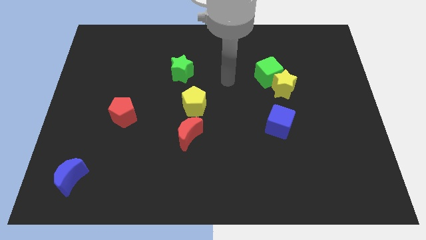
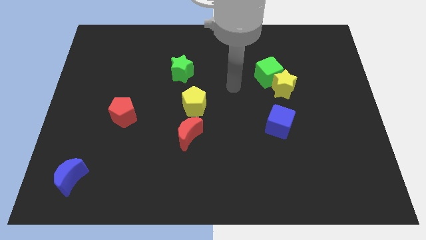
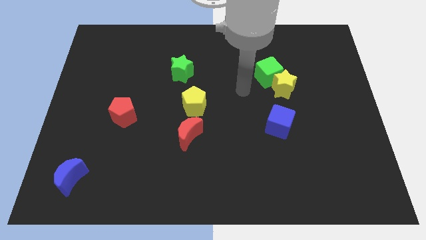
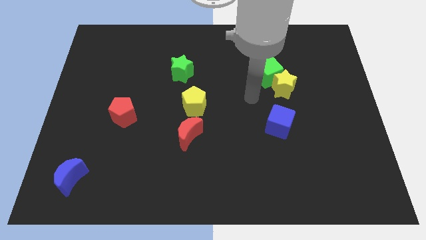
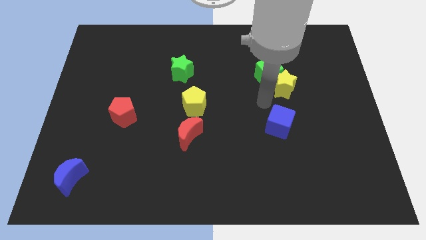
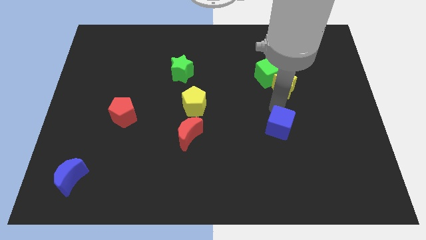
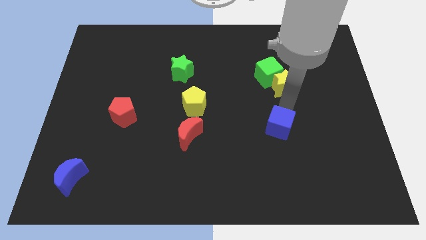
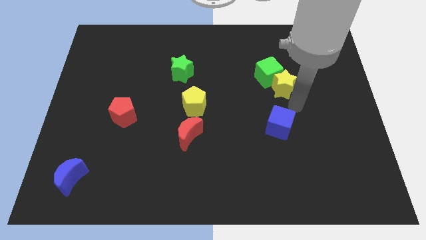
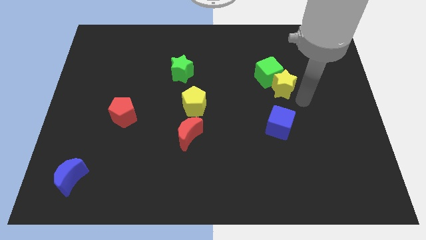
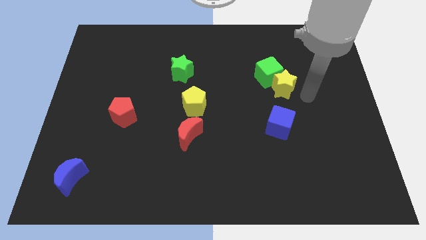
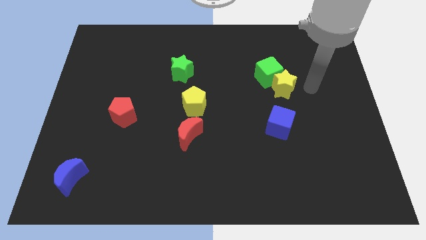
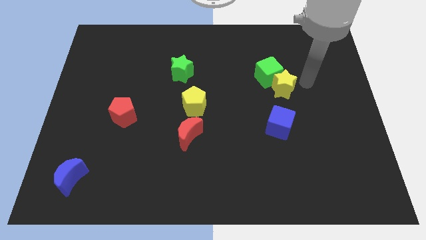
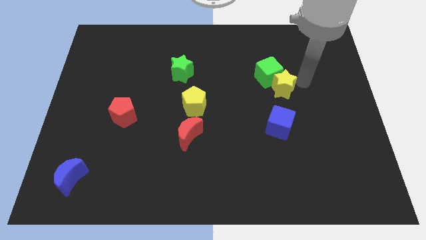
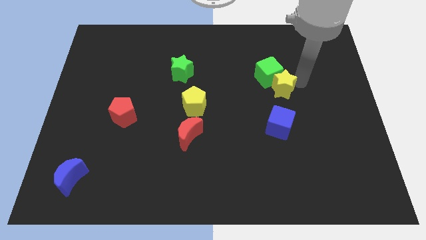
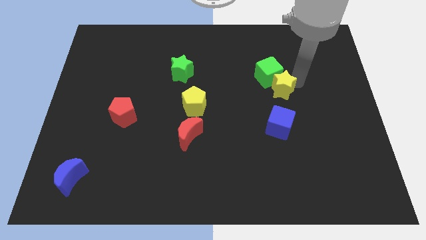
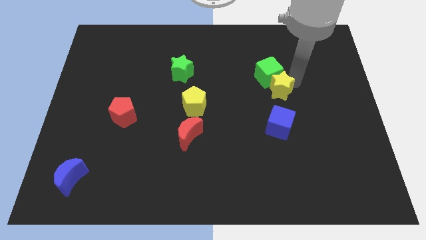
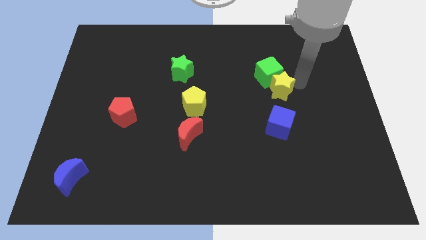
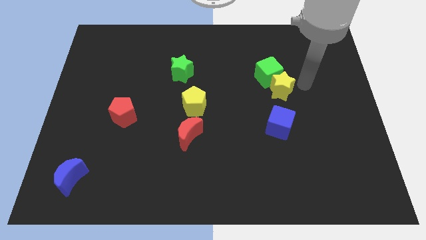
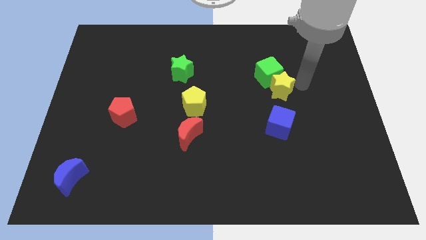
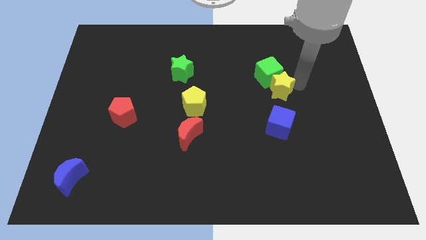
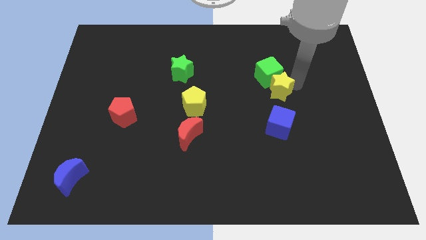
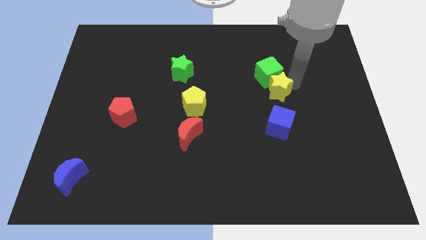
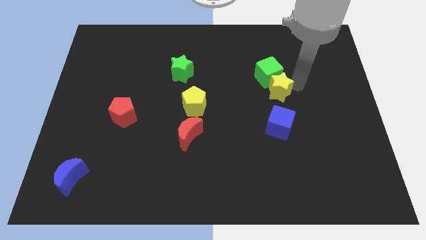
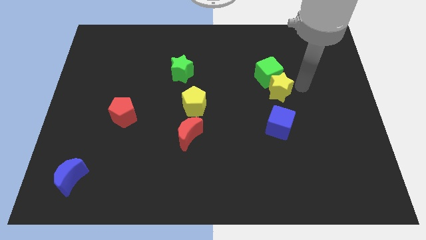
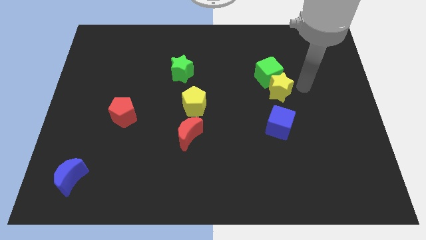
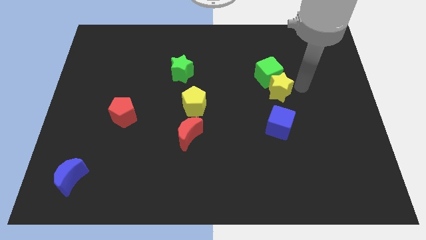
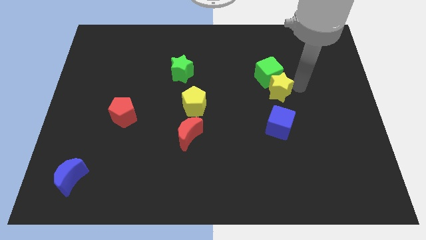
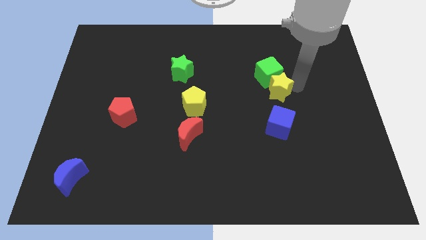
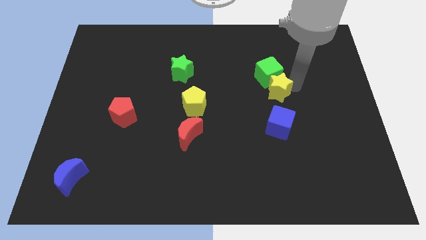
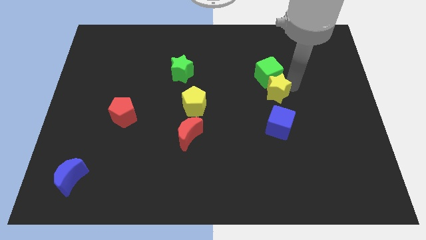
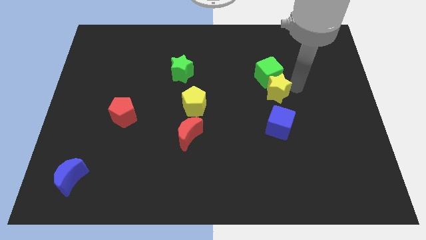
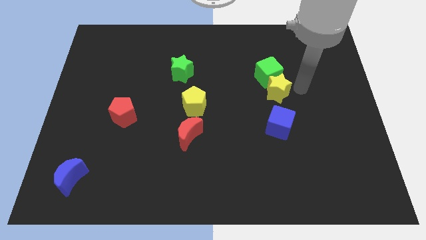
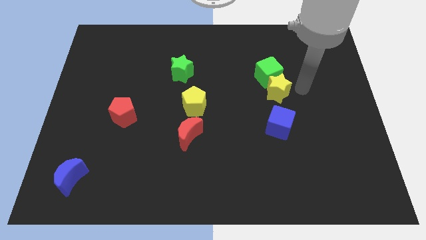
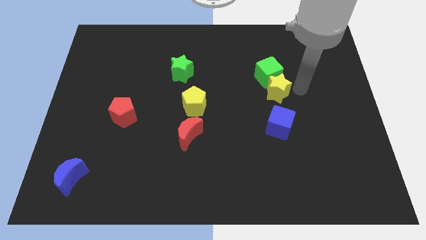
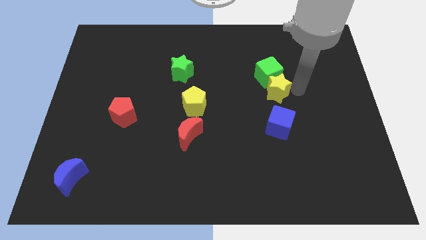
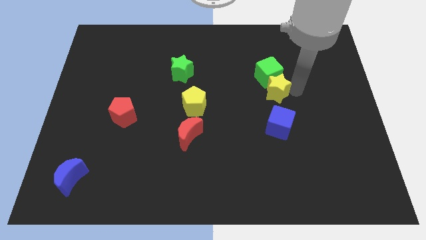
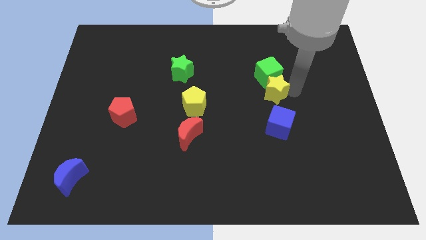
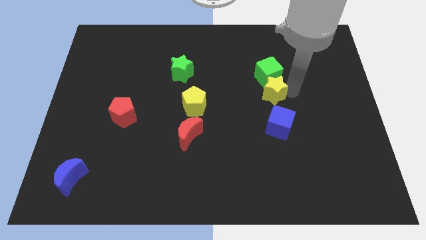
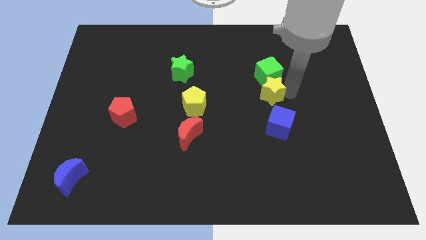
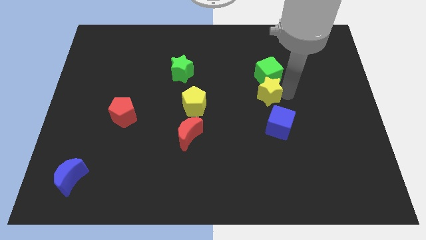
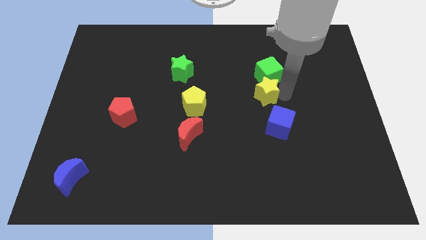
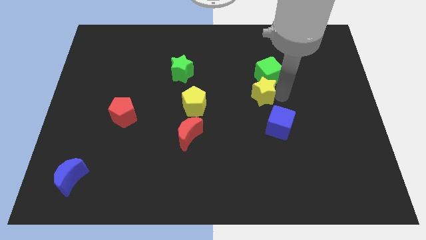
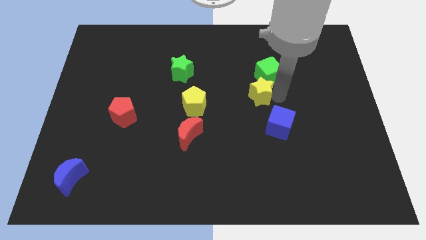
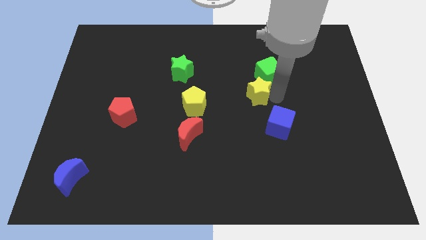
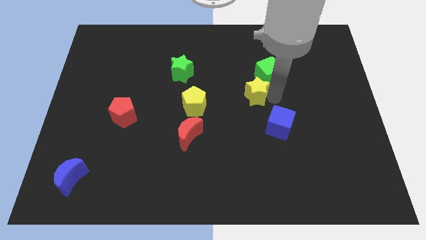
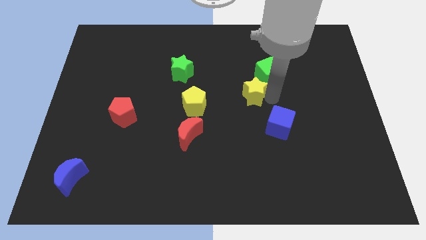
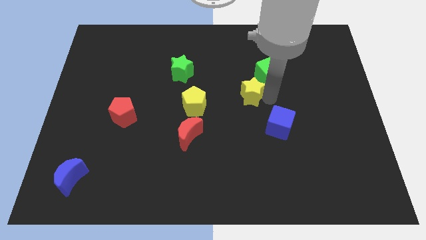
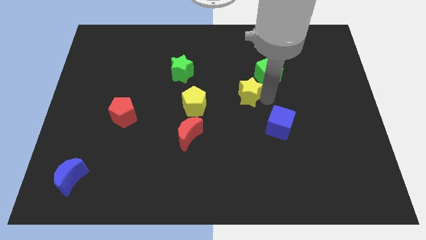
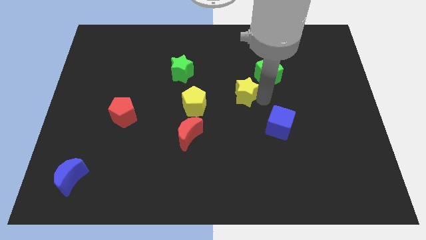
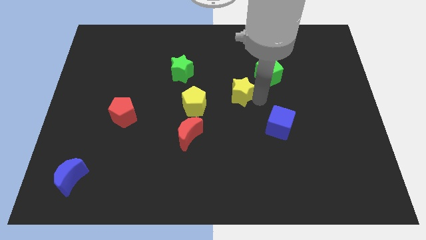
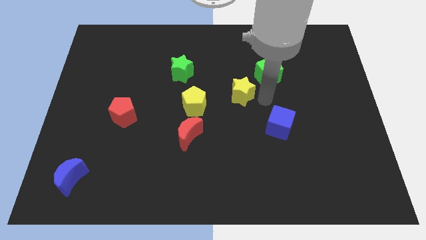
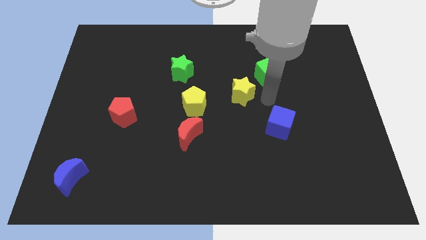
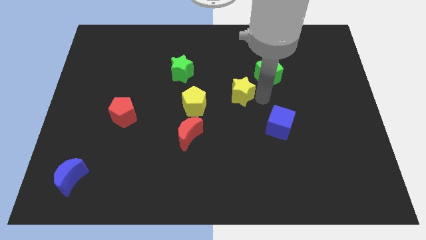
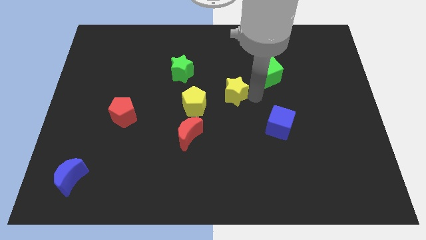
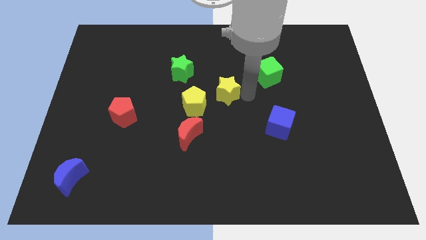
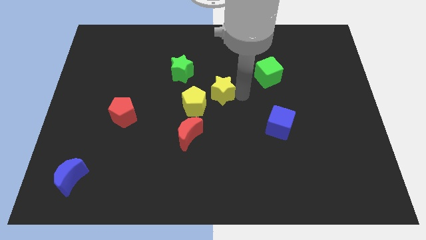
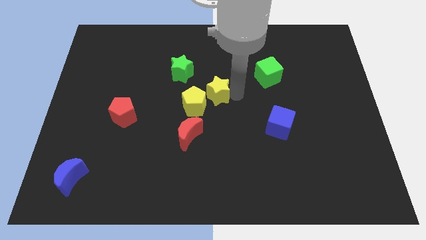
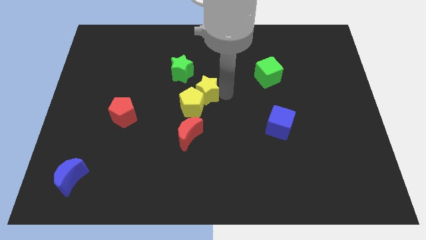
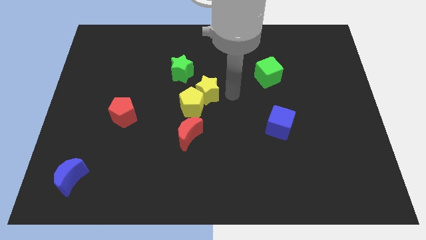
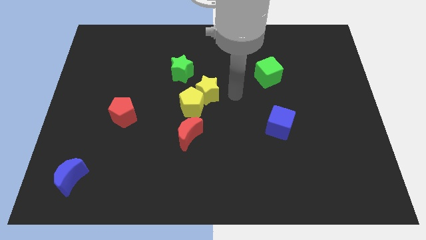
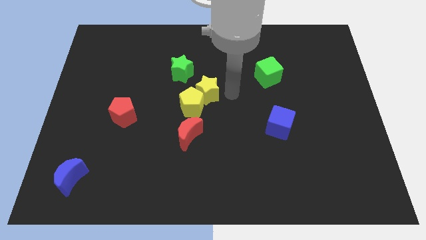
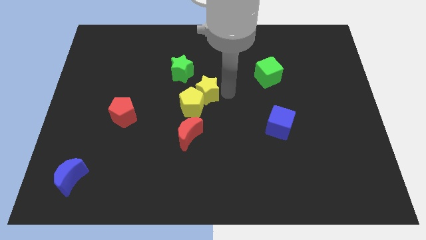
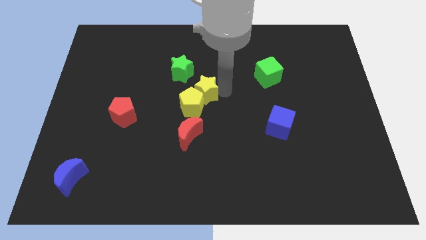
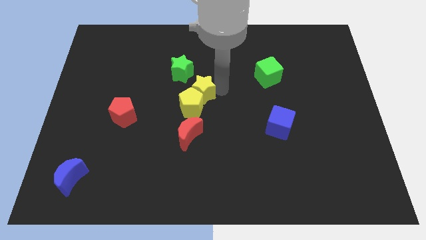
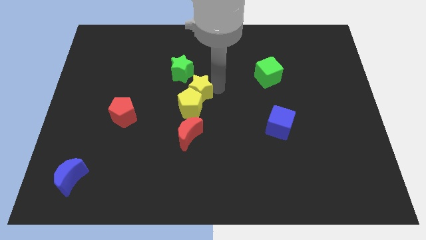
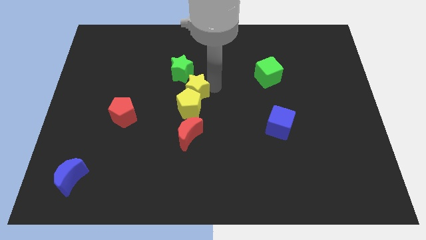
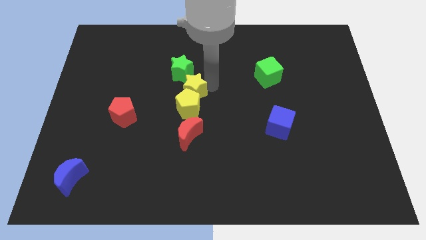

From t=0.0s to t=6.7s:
slide the yellow star to the top left of the yellow pentagon

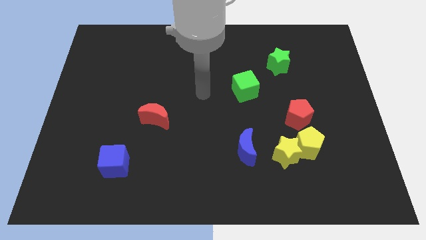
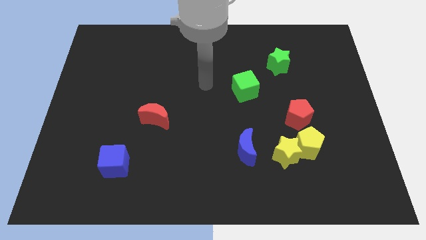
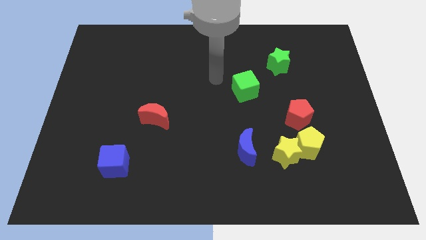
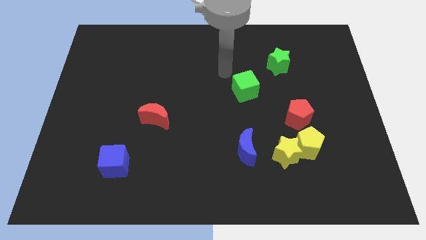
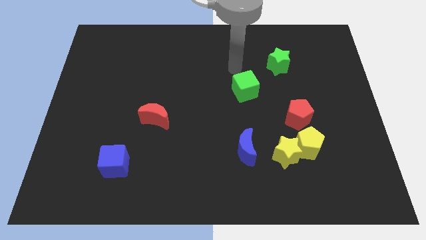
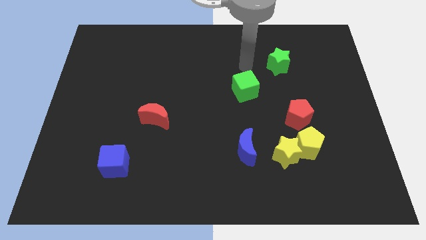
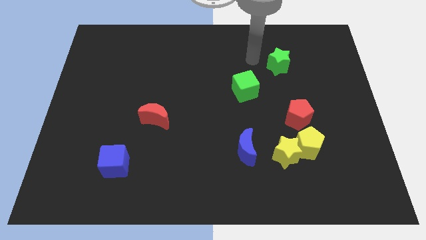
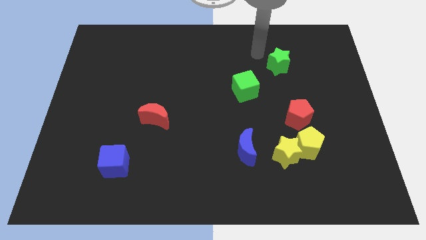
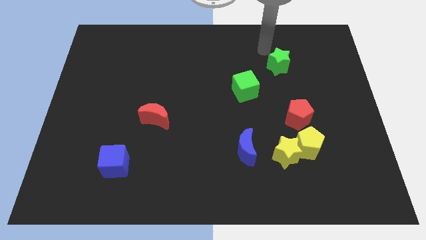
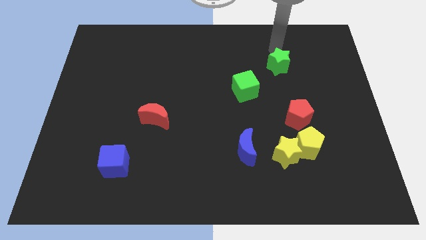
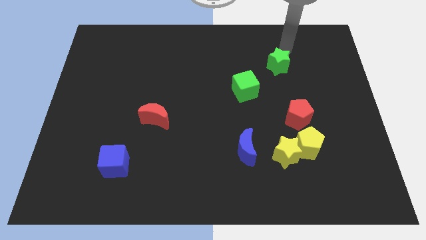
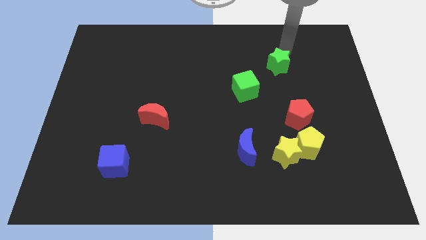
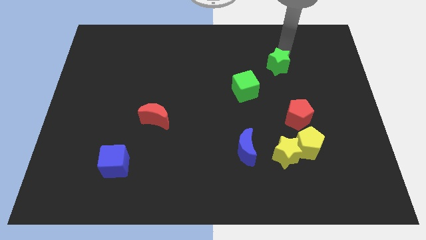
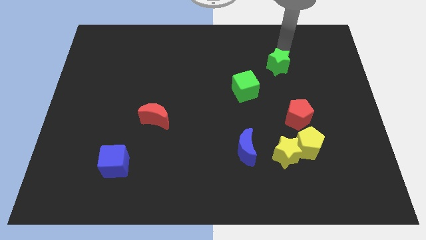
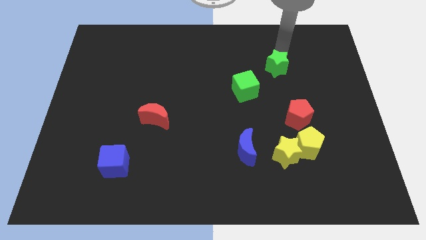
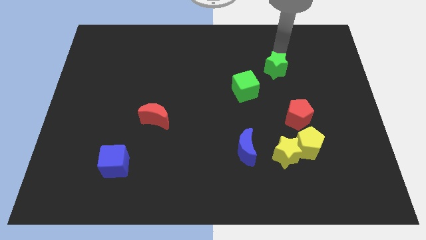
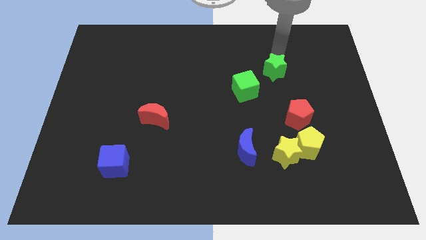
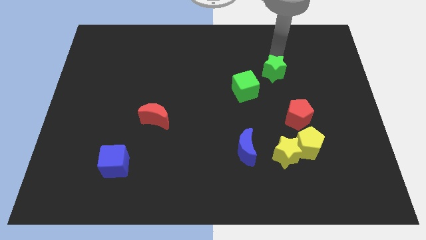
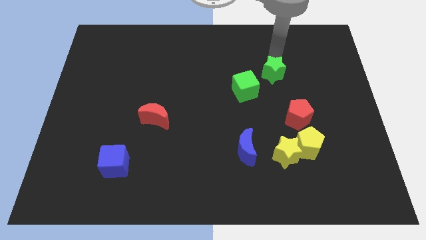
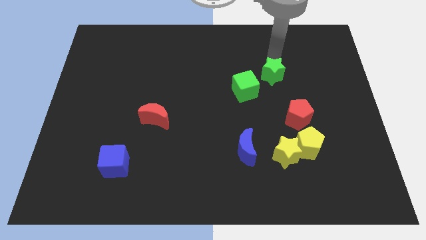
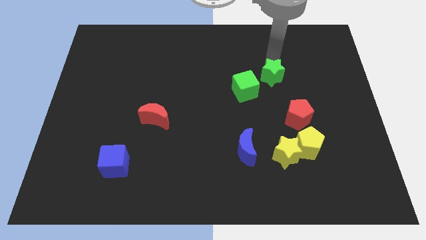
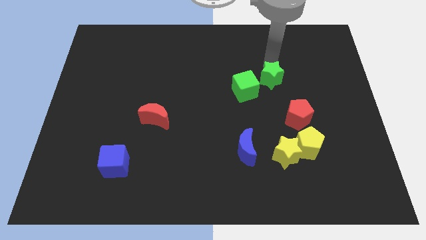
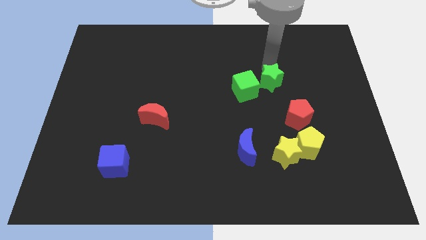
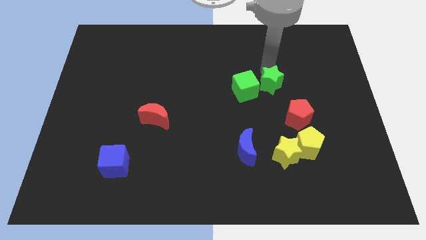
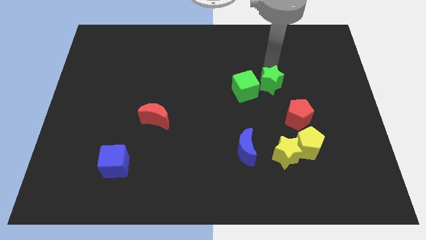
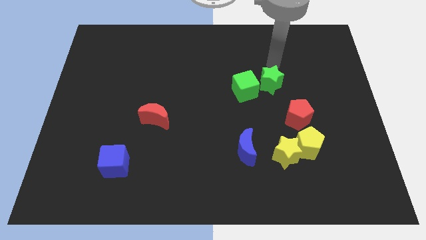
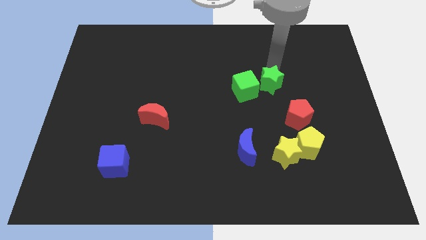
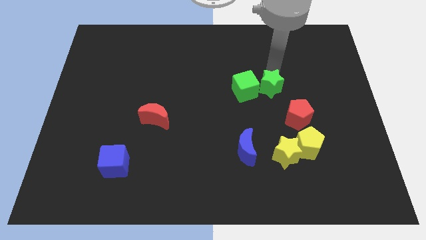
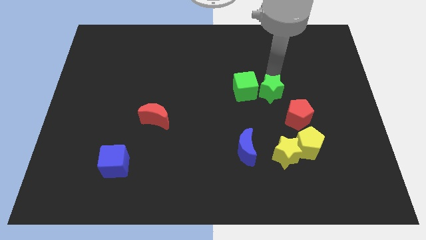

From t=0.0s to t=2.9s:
push the green star diagonally down and to the right of the green cube
